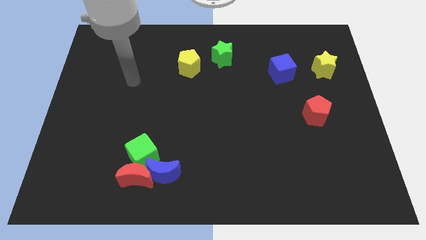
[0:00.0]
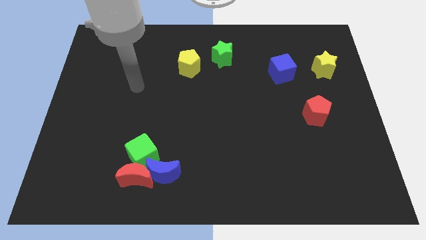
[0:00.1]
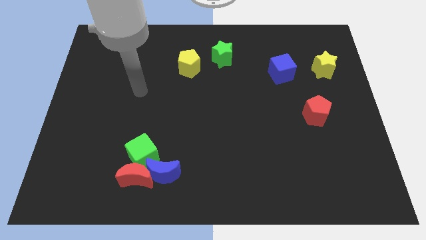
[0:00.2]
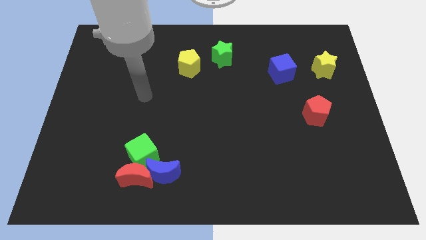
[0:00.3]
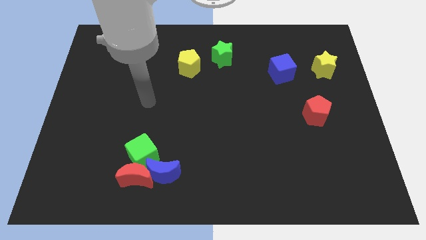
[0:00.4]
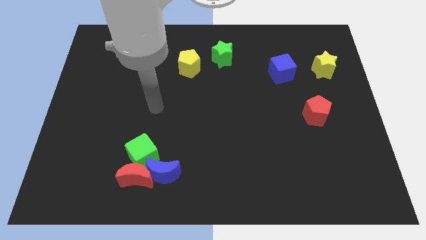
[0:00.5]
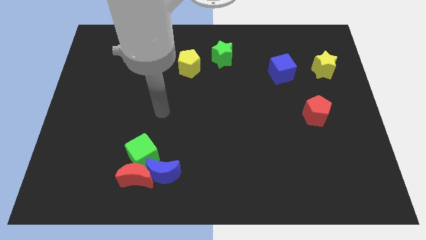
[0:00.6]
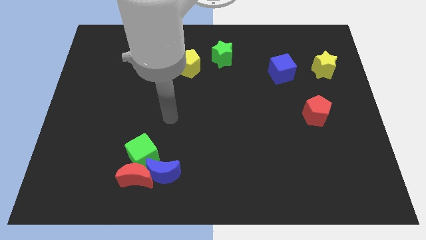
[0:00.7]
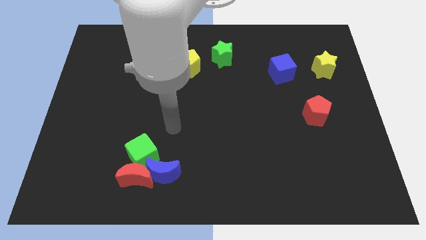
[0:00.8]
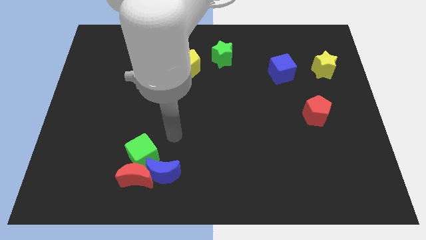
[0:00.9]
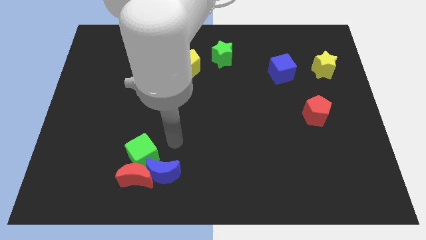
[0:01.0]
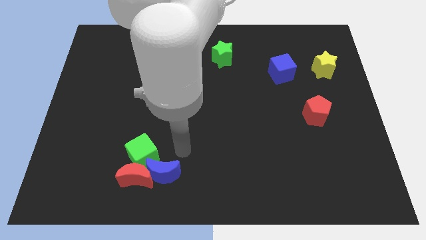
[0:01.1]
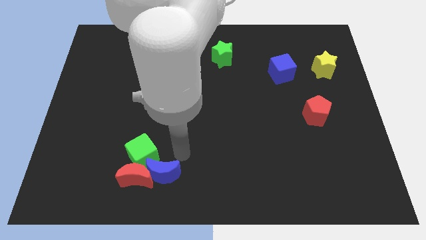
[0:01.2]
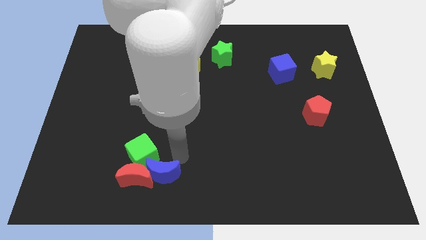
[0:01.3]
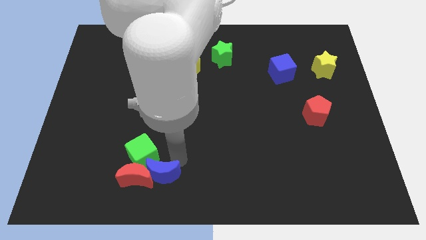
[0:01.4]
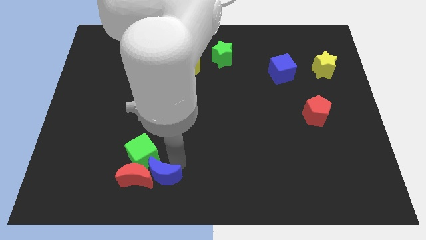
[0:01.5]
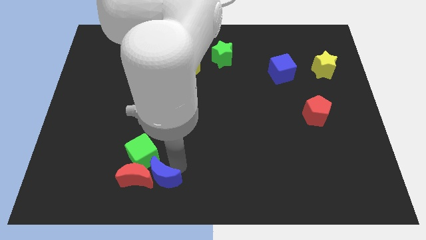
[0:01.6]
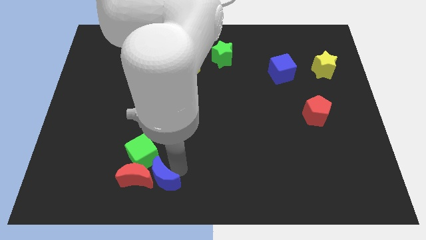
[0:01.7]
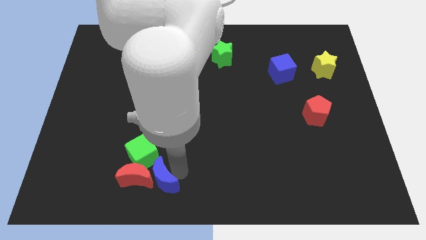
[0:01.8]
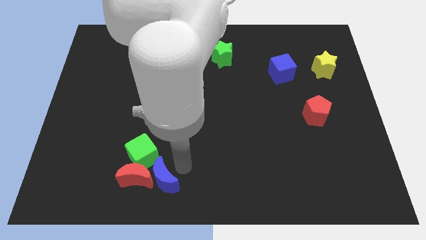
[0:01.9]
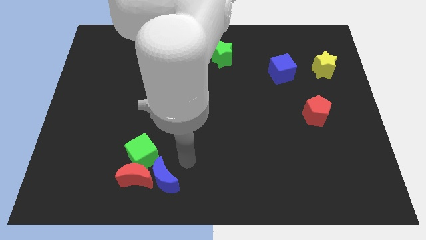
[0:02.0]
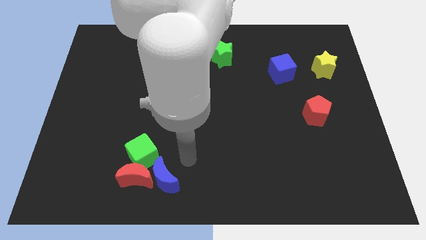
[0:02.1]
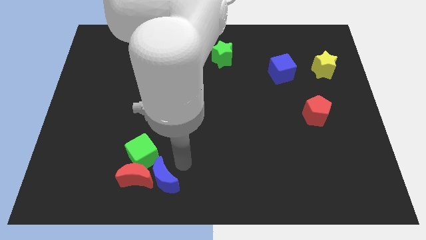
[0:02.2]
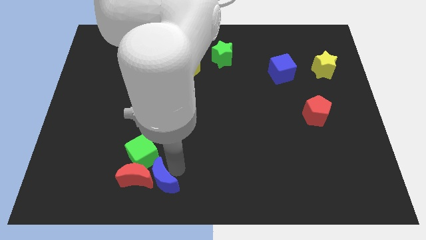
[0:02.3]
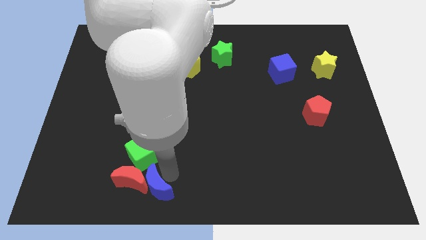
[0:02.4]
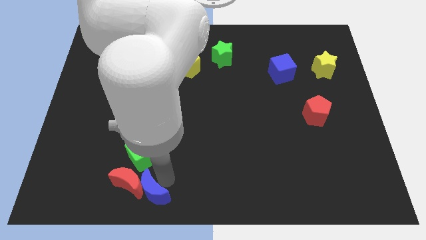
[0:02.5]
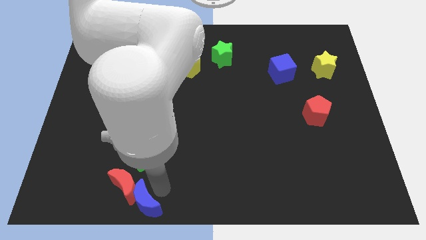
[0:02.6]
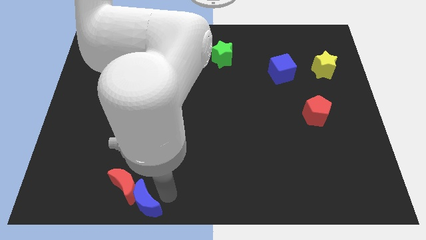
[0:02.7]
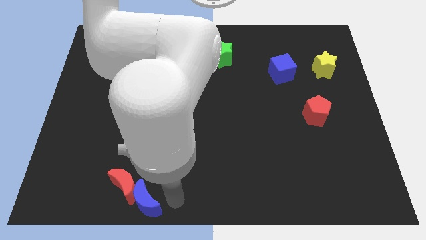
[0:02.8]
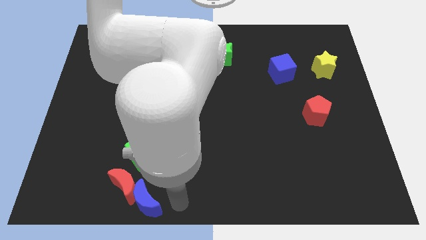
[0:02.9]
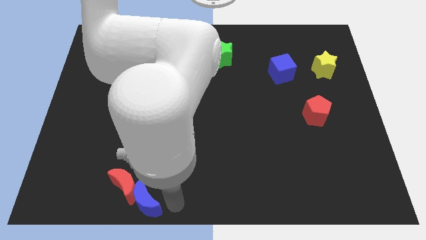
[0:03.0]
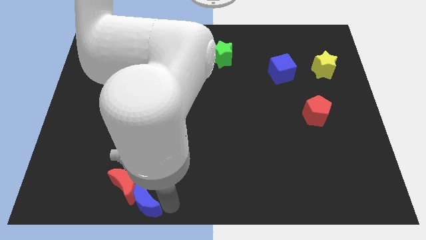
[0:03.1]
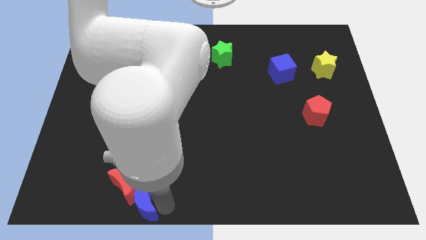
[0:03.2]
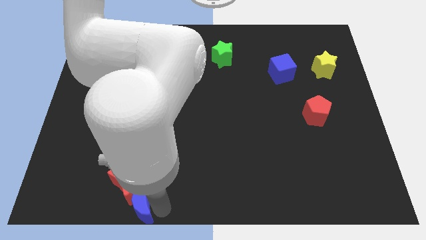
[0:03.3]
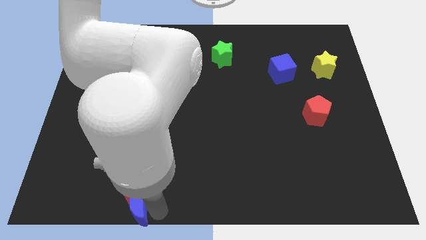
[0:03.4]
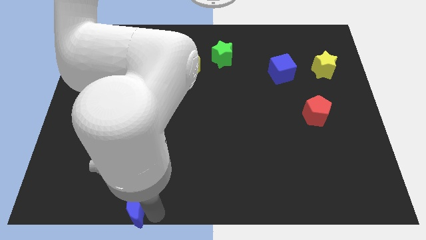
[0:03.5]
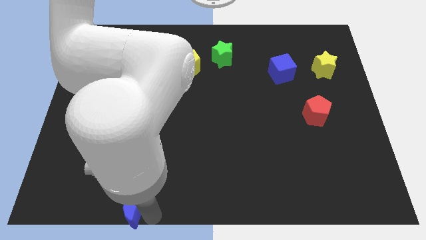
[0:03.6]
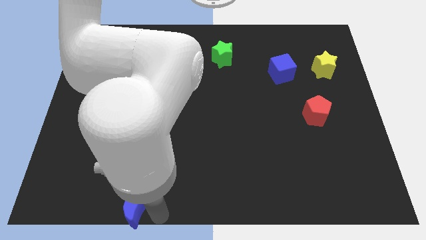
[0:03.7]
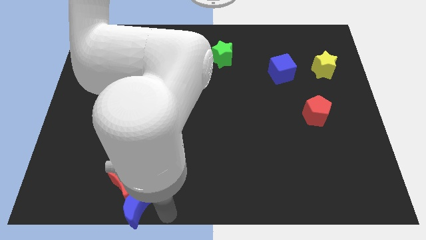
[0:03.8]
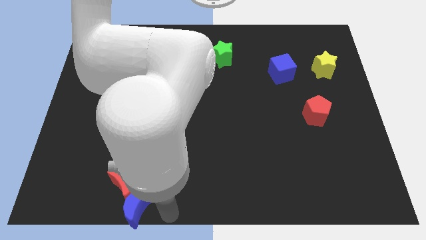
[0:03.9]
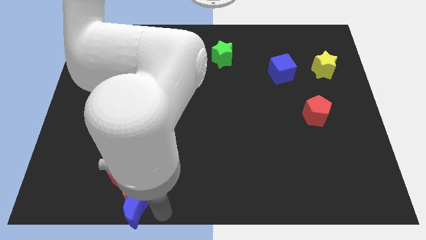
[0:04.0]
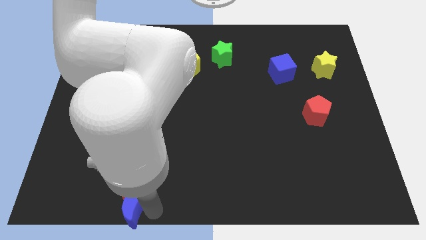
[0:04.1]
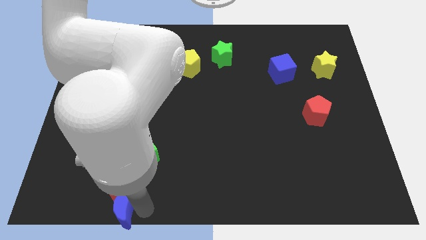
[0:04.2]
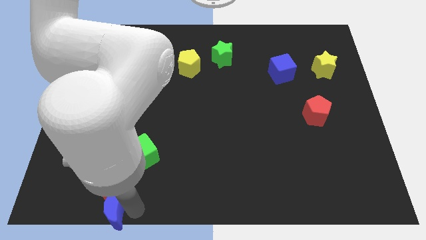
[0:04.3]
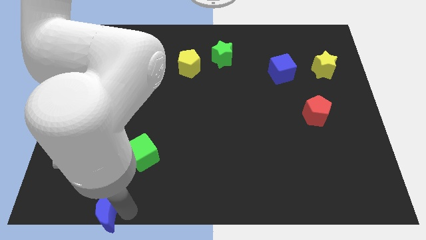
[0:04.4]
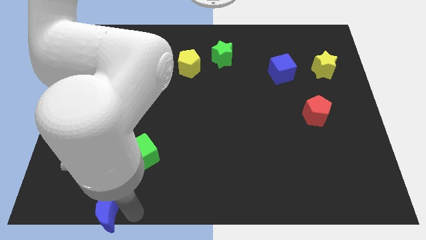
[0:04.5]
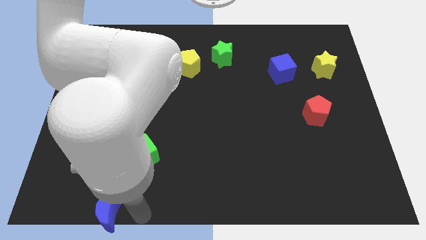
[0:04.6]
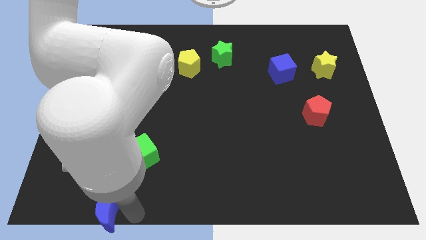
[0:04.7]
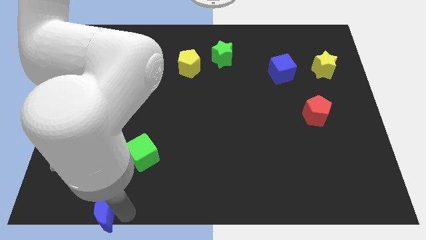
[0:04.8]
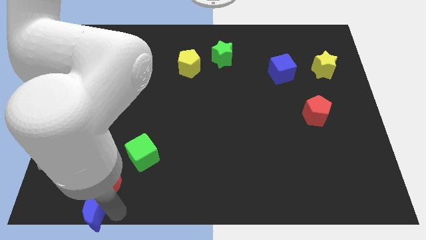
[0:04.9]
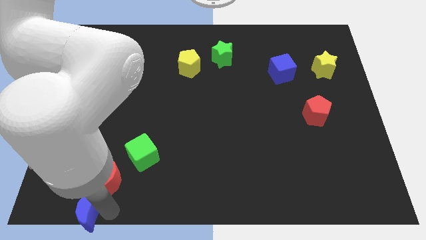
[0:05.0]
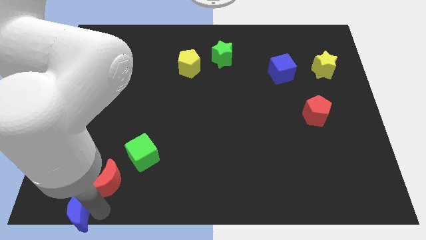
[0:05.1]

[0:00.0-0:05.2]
put the blue moon to the bottom left of the board

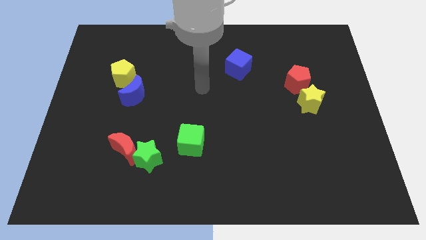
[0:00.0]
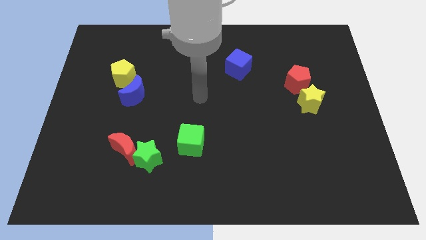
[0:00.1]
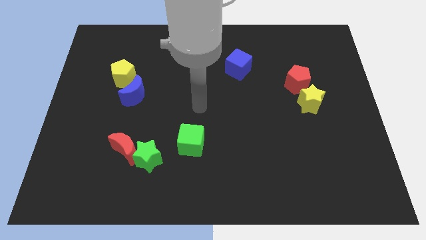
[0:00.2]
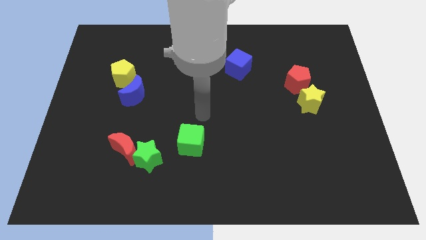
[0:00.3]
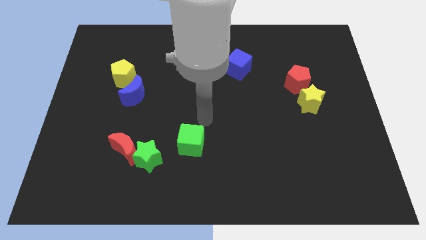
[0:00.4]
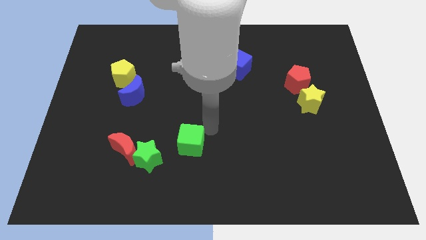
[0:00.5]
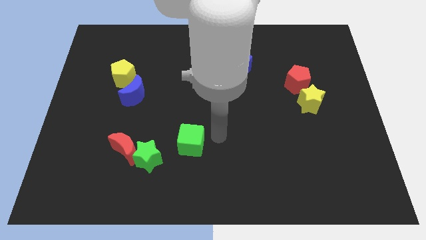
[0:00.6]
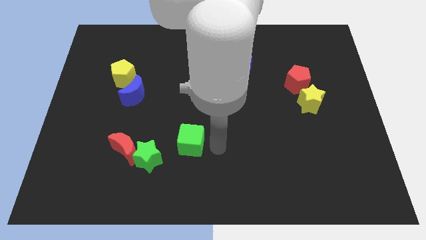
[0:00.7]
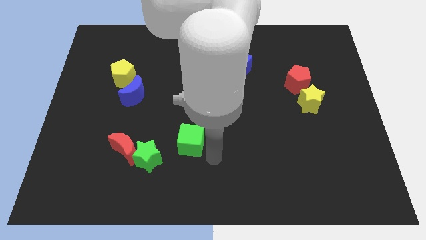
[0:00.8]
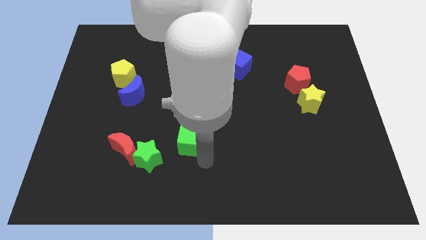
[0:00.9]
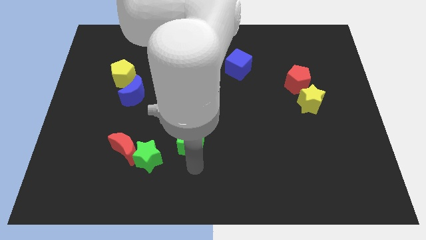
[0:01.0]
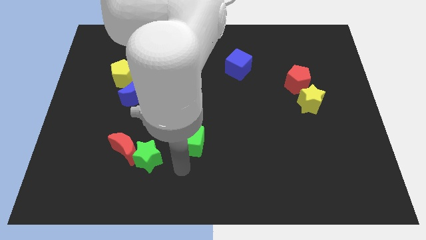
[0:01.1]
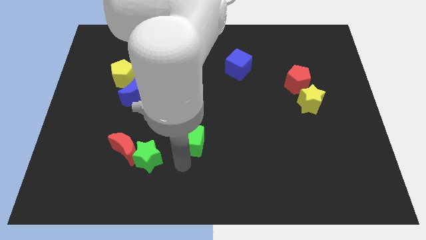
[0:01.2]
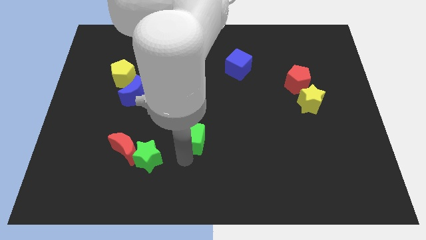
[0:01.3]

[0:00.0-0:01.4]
push the green cube to the center of the board

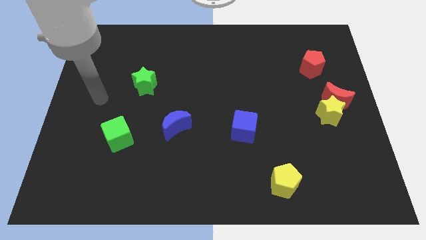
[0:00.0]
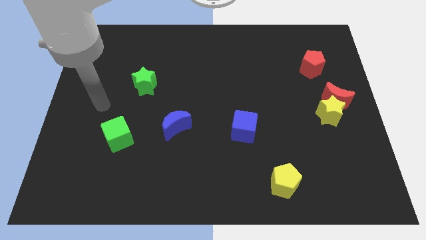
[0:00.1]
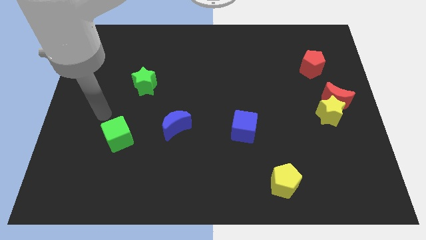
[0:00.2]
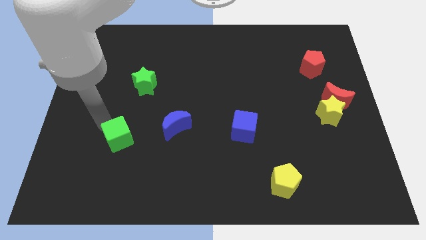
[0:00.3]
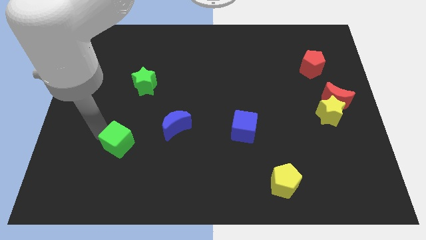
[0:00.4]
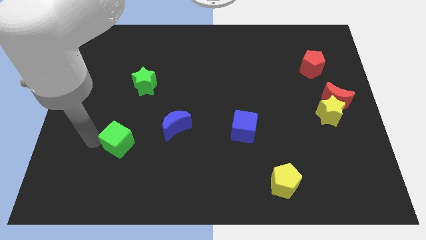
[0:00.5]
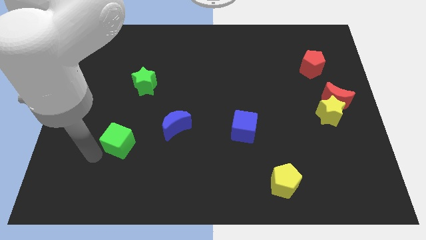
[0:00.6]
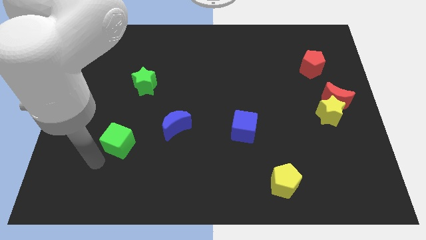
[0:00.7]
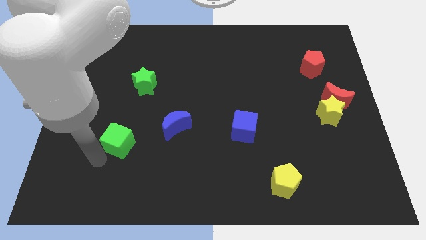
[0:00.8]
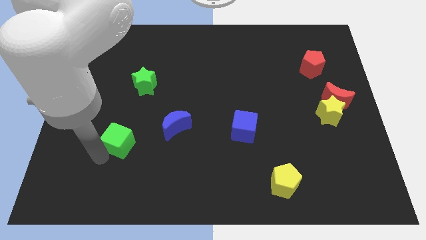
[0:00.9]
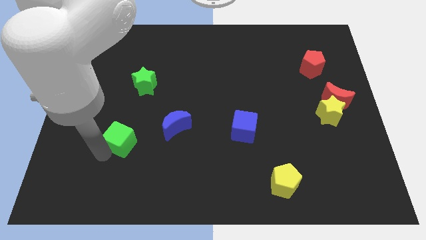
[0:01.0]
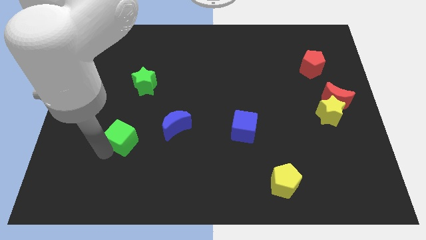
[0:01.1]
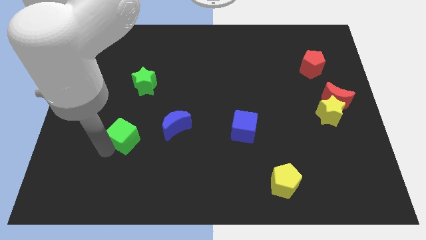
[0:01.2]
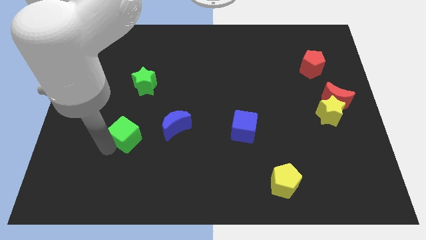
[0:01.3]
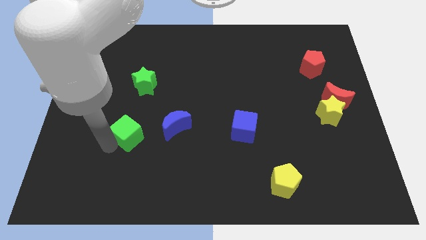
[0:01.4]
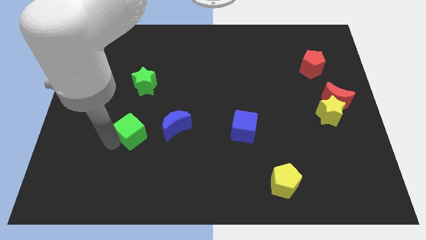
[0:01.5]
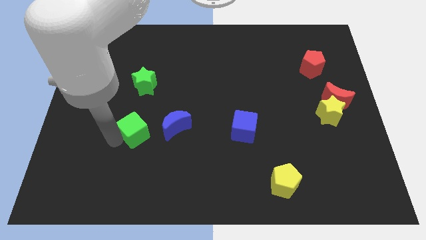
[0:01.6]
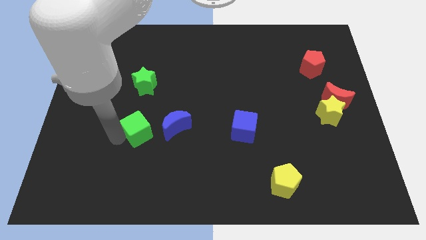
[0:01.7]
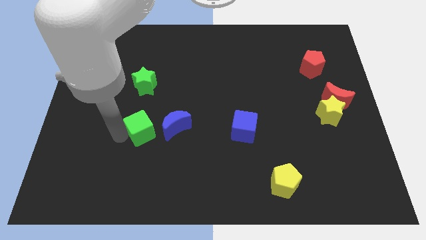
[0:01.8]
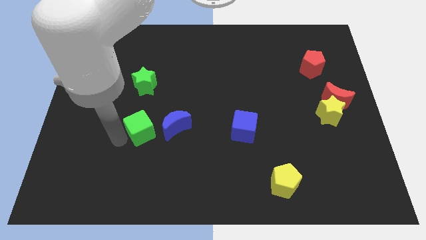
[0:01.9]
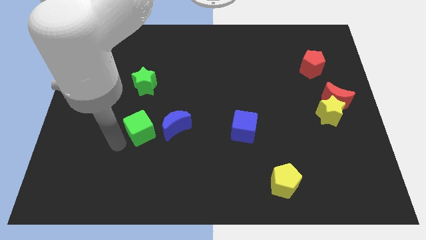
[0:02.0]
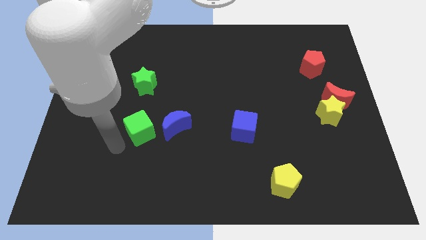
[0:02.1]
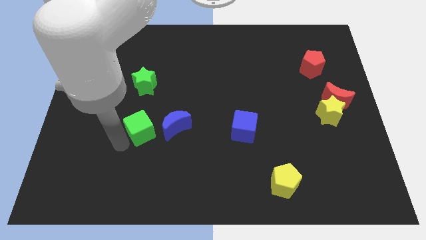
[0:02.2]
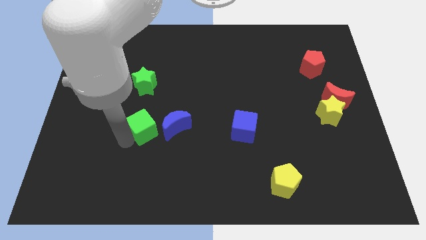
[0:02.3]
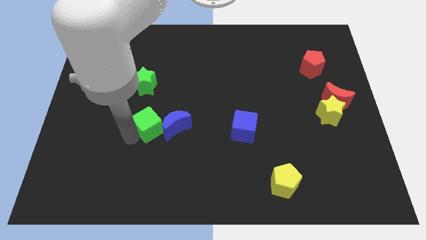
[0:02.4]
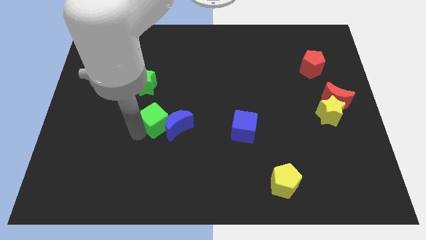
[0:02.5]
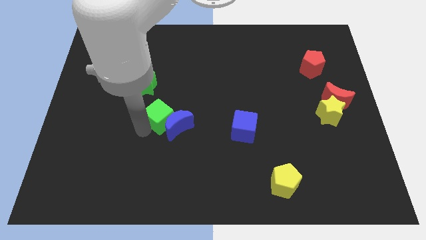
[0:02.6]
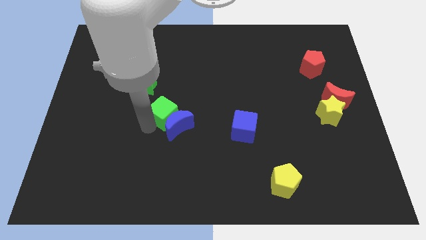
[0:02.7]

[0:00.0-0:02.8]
put the green cube to the middle
